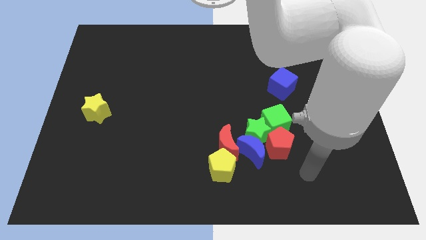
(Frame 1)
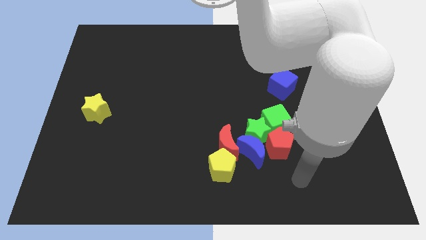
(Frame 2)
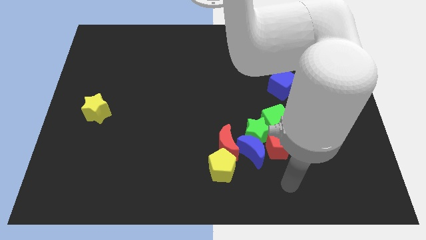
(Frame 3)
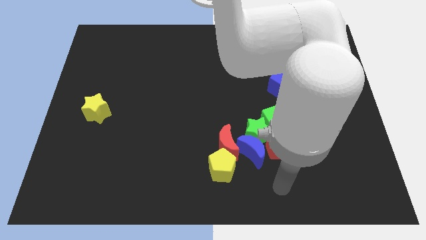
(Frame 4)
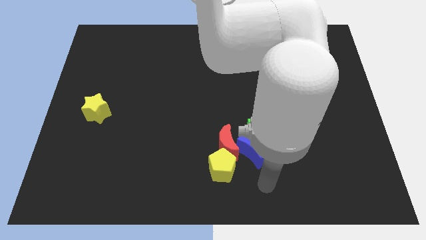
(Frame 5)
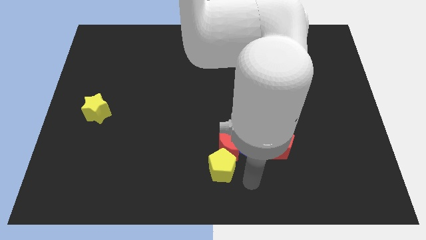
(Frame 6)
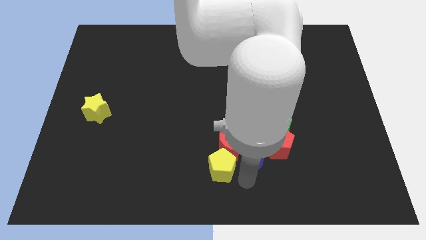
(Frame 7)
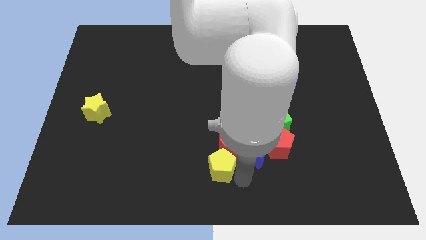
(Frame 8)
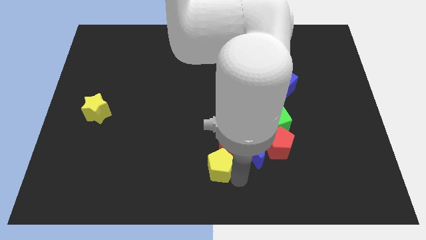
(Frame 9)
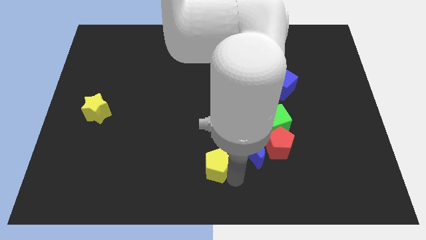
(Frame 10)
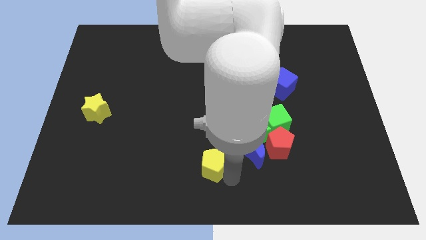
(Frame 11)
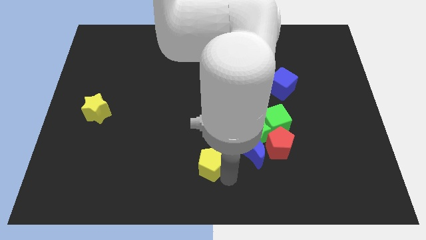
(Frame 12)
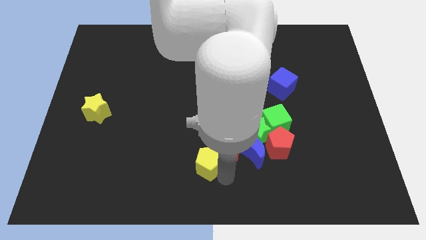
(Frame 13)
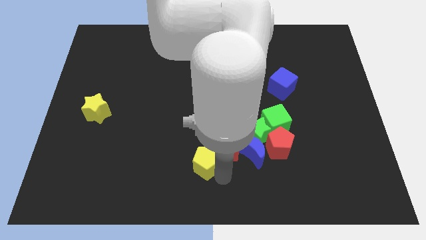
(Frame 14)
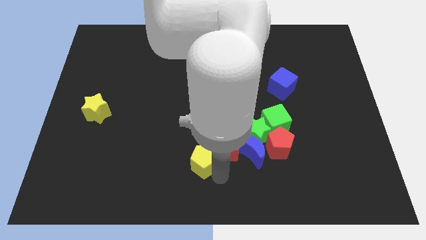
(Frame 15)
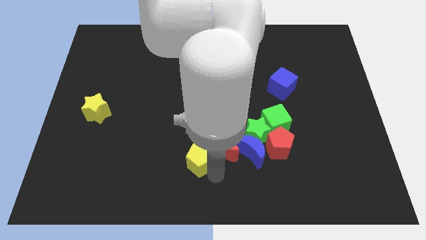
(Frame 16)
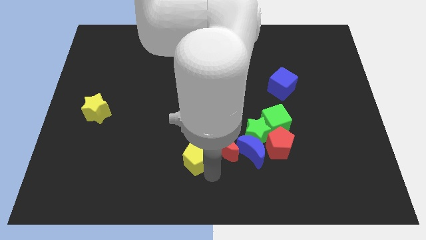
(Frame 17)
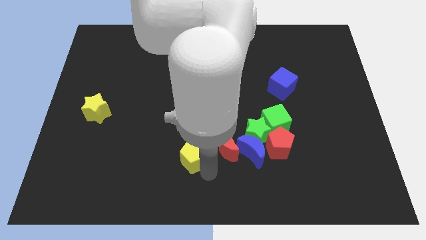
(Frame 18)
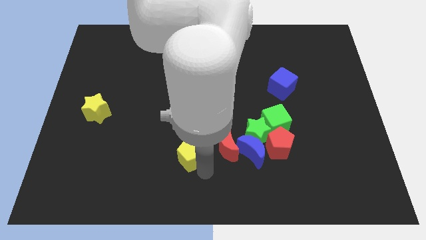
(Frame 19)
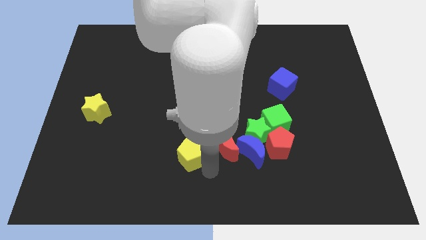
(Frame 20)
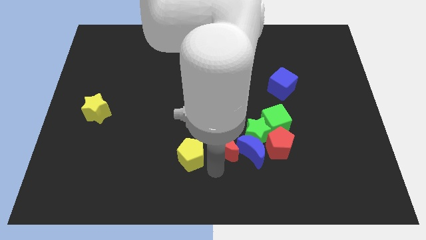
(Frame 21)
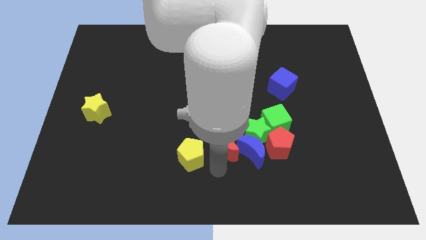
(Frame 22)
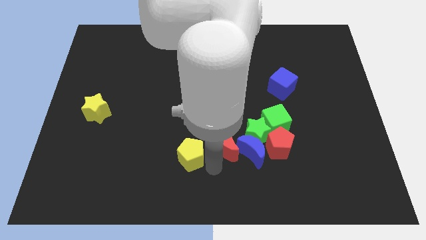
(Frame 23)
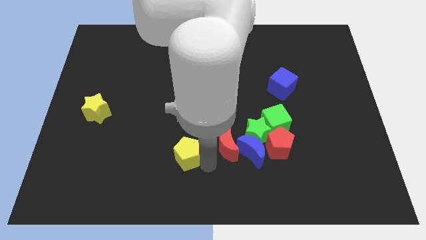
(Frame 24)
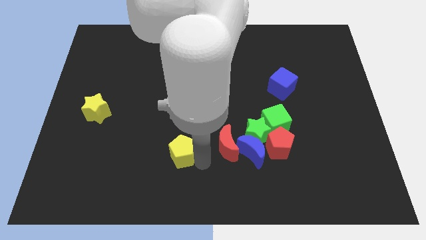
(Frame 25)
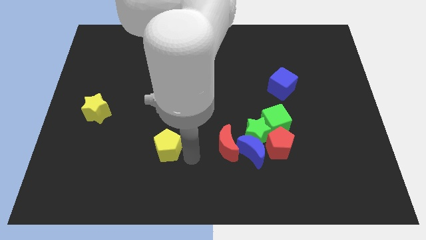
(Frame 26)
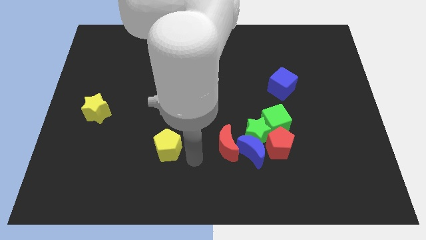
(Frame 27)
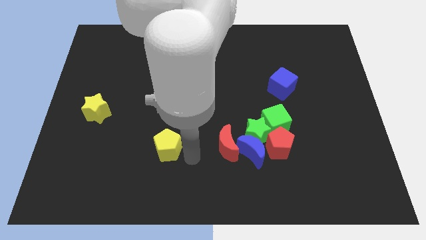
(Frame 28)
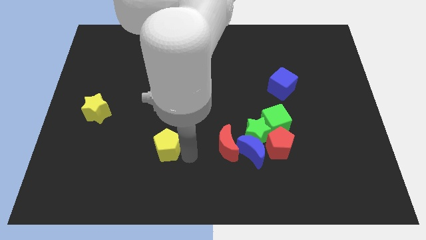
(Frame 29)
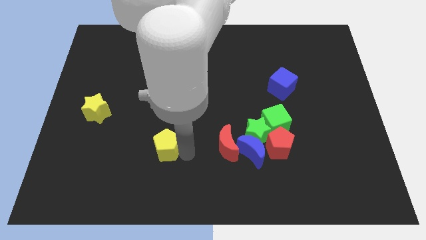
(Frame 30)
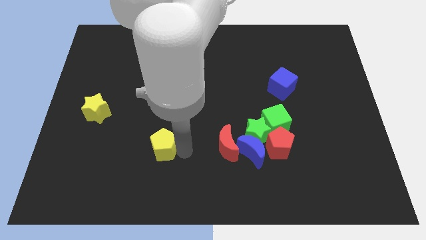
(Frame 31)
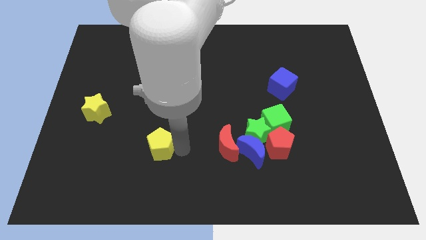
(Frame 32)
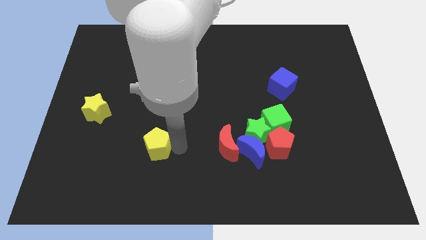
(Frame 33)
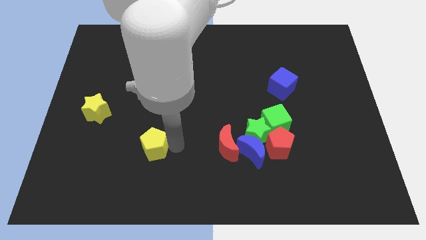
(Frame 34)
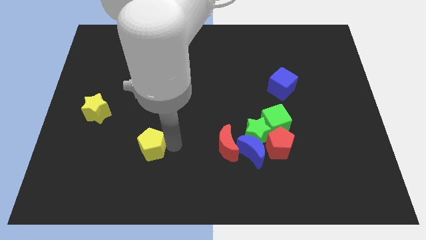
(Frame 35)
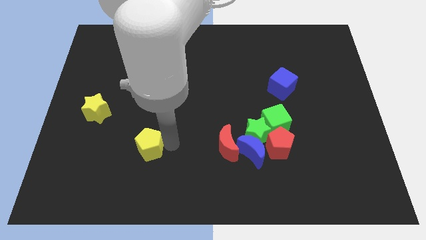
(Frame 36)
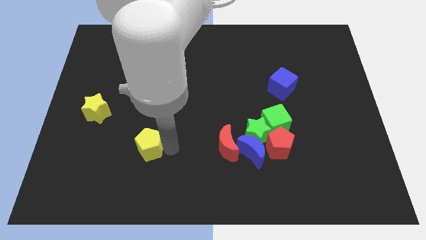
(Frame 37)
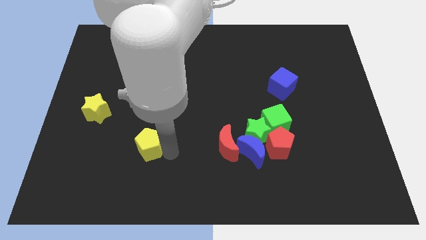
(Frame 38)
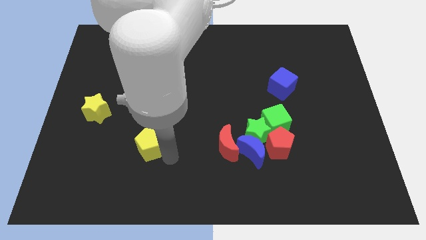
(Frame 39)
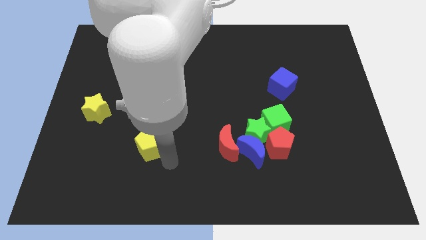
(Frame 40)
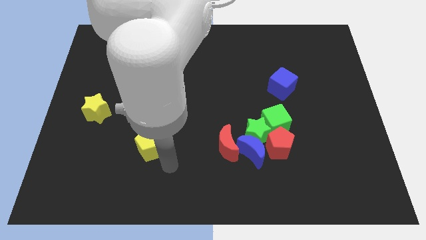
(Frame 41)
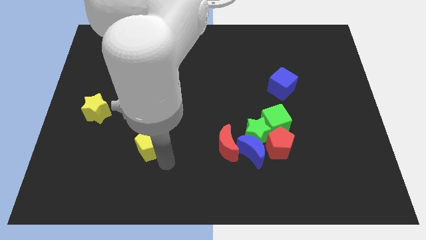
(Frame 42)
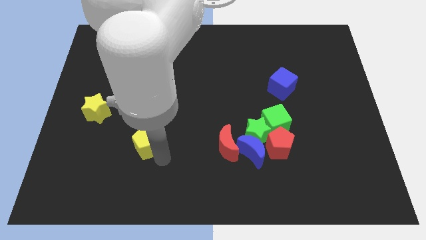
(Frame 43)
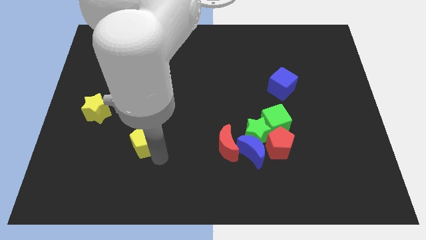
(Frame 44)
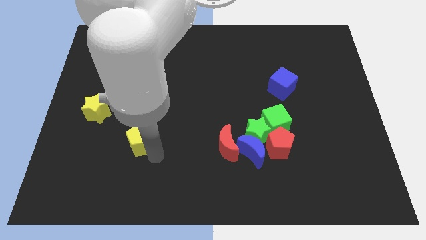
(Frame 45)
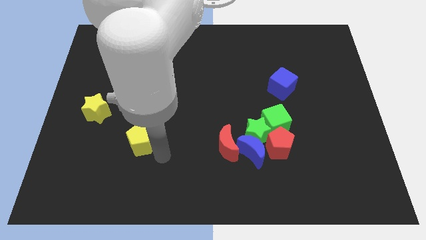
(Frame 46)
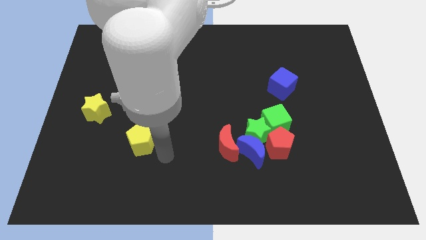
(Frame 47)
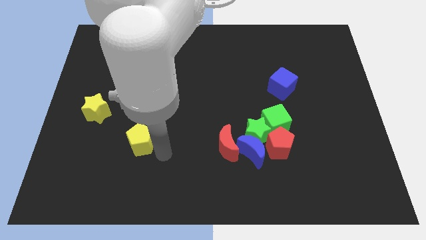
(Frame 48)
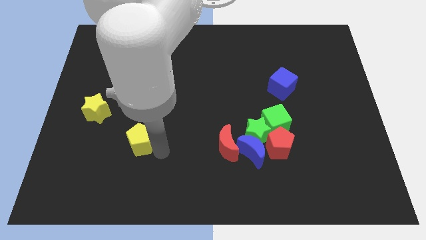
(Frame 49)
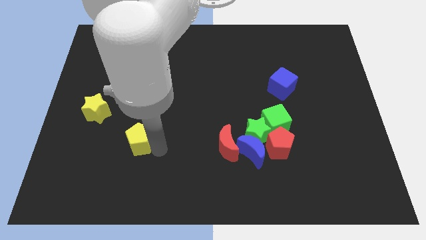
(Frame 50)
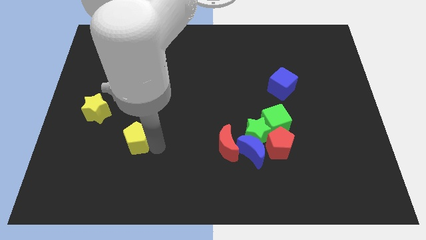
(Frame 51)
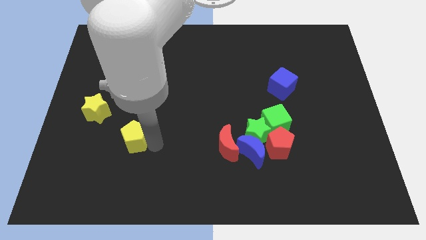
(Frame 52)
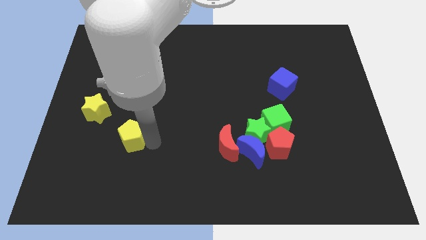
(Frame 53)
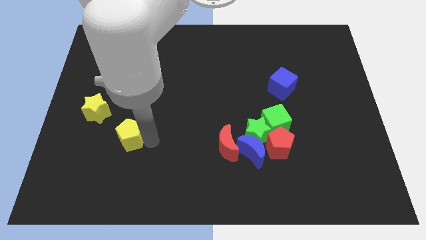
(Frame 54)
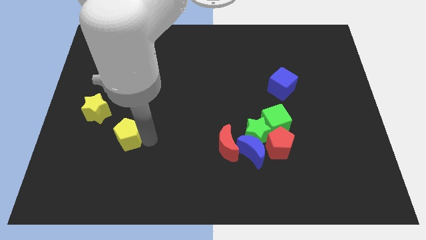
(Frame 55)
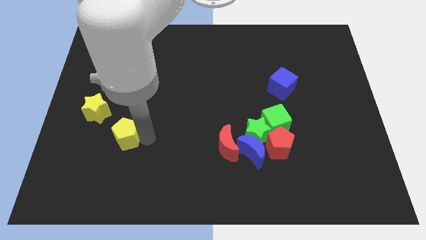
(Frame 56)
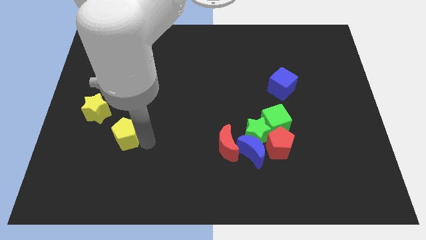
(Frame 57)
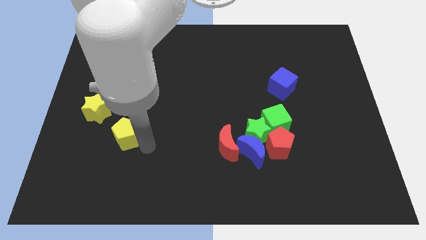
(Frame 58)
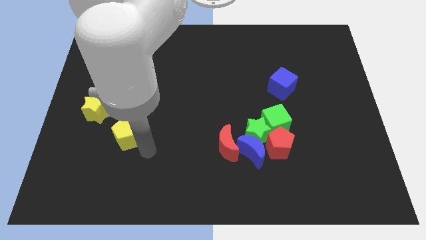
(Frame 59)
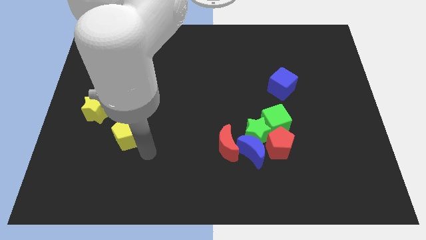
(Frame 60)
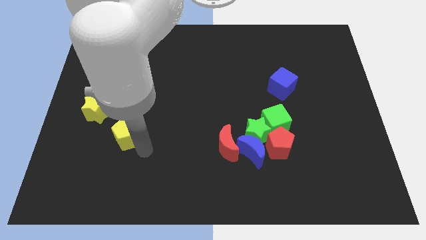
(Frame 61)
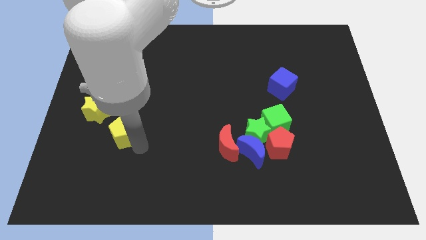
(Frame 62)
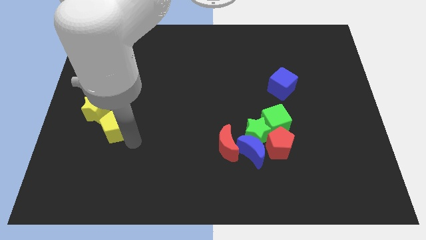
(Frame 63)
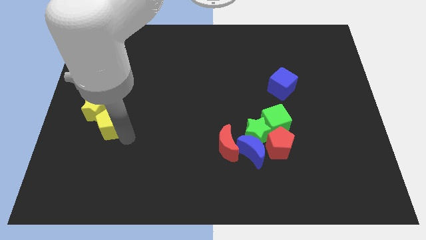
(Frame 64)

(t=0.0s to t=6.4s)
push the yellow pentagon towards the yellow star
